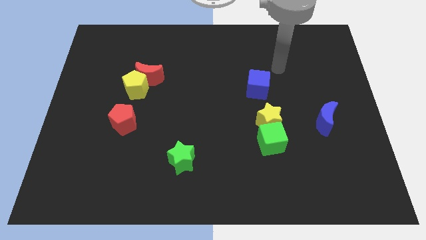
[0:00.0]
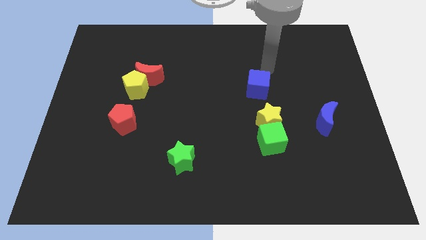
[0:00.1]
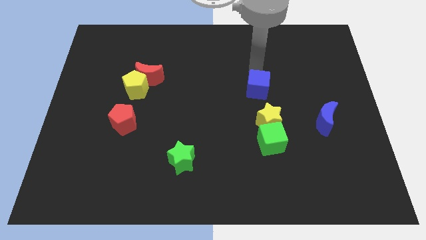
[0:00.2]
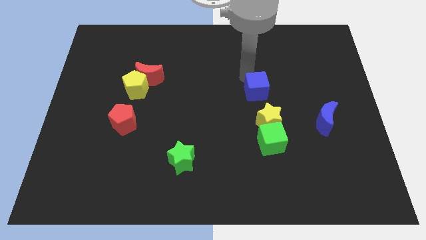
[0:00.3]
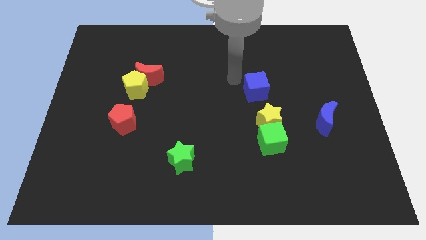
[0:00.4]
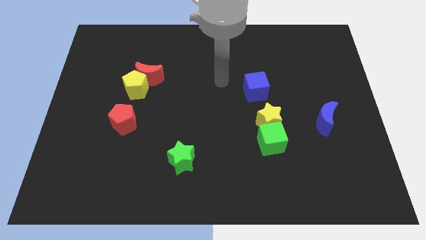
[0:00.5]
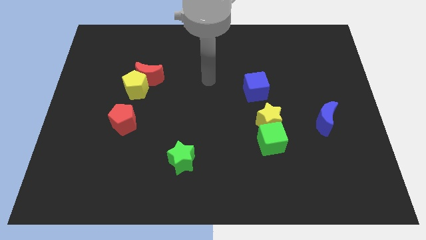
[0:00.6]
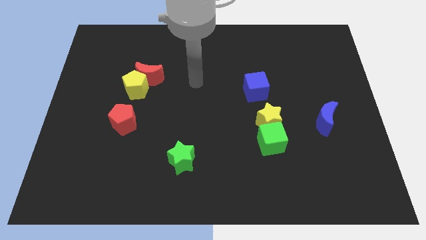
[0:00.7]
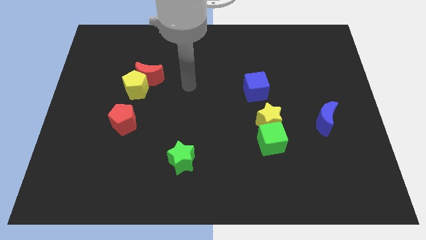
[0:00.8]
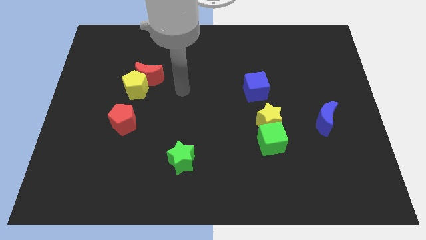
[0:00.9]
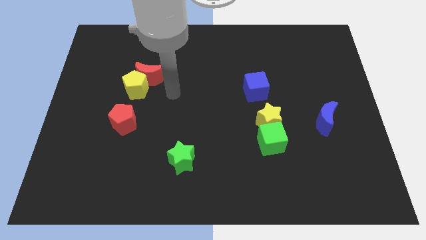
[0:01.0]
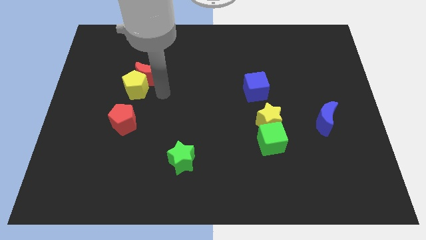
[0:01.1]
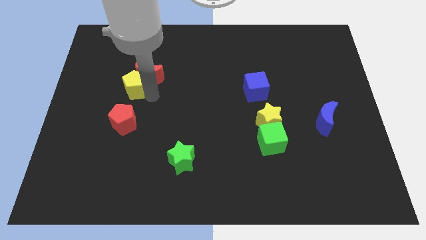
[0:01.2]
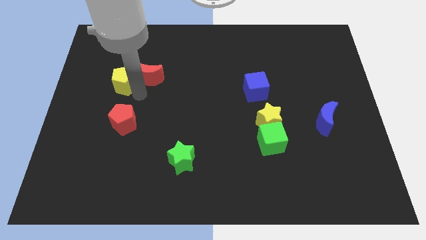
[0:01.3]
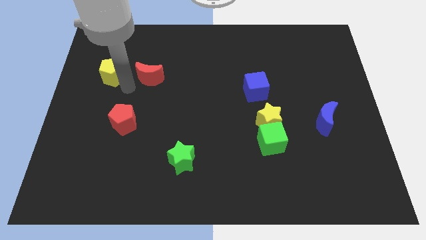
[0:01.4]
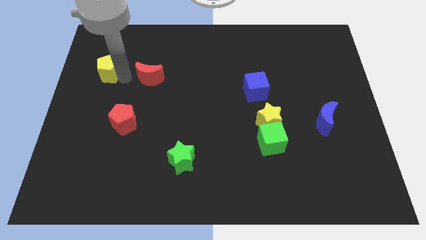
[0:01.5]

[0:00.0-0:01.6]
pull the red moon apart from the yellow pentagon

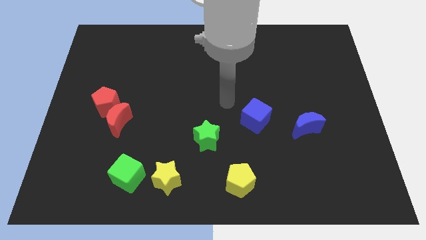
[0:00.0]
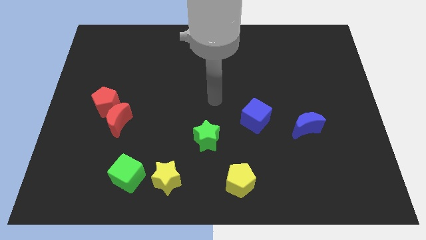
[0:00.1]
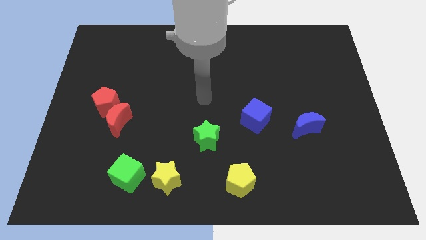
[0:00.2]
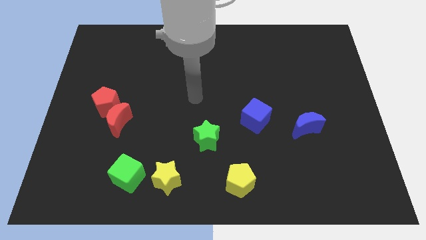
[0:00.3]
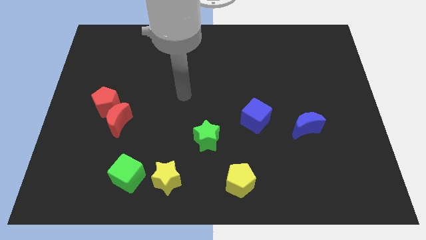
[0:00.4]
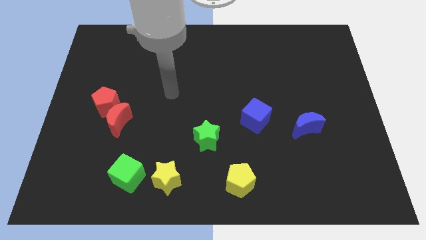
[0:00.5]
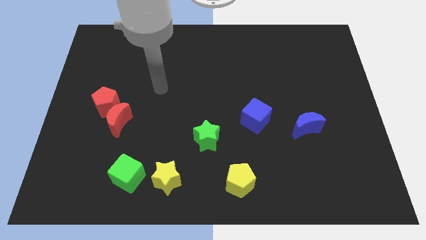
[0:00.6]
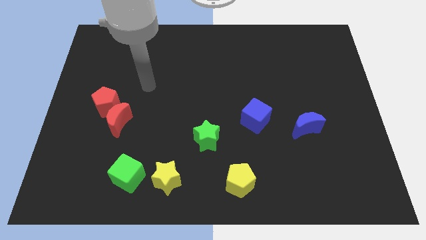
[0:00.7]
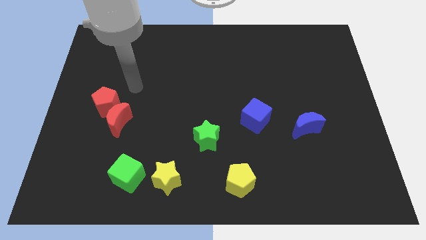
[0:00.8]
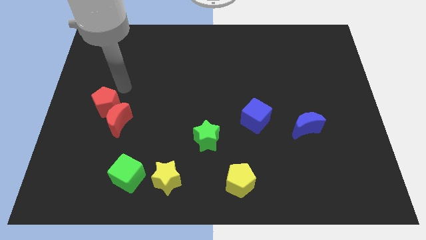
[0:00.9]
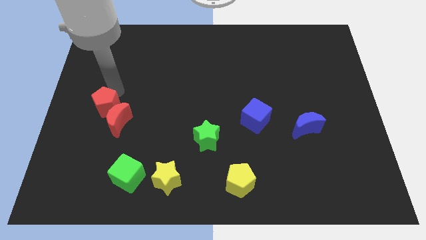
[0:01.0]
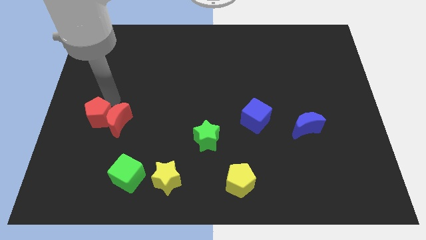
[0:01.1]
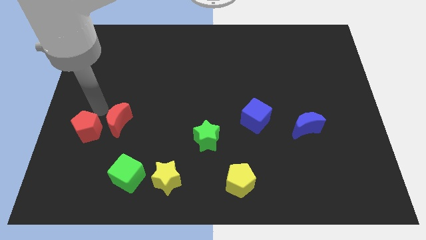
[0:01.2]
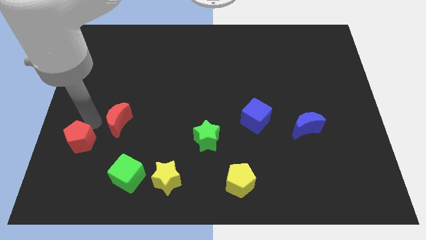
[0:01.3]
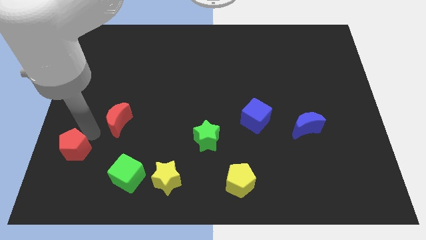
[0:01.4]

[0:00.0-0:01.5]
separate the red moon from the red pentagon

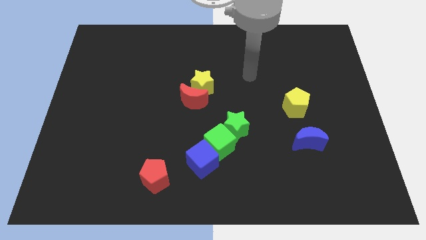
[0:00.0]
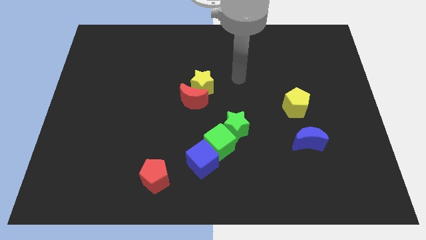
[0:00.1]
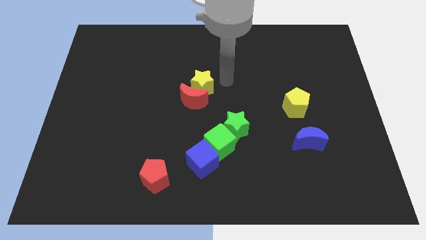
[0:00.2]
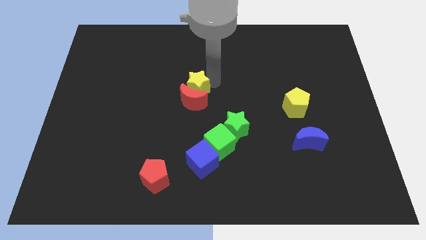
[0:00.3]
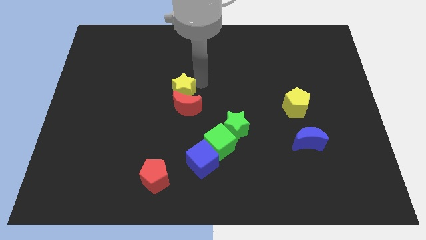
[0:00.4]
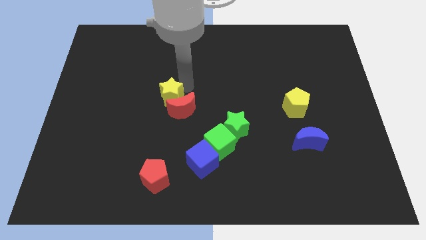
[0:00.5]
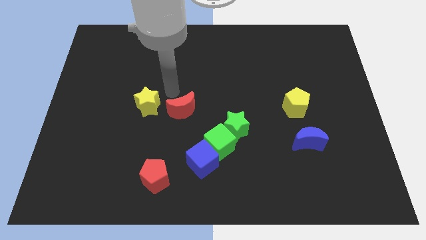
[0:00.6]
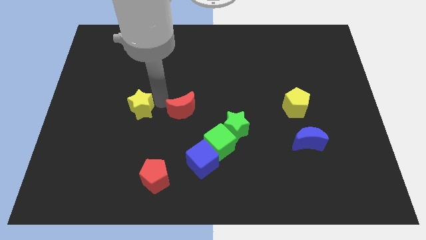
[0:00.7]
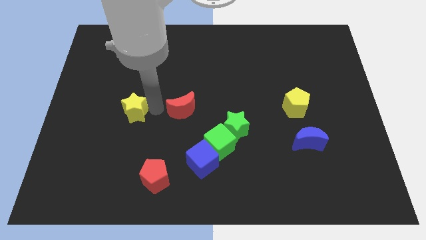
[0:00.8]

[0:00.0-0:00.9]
move the red moon away from the yellow star

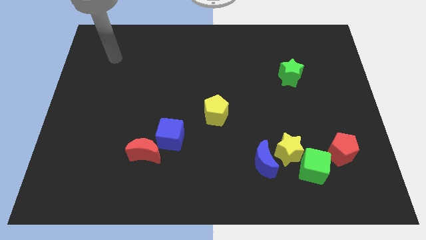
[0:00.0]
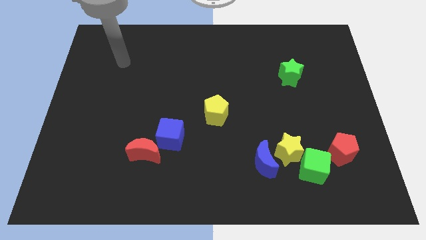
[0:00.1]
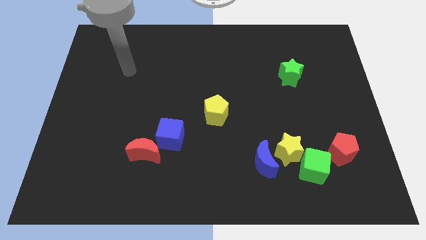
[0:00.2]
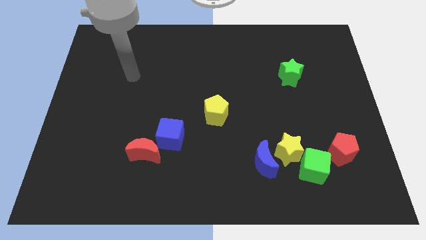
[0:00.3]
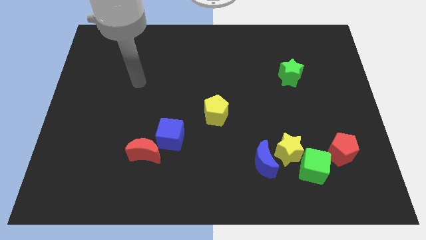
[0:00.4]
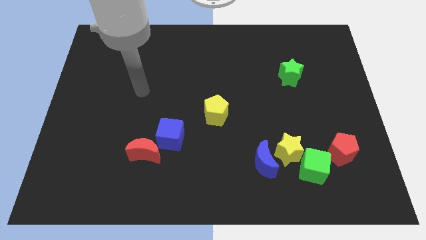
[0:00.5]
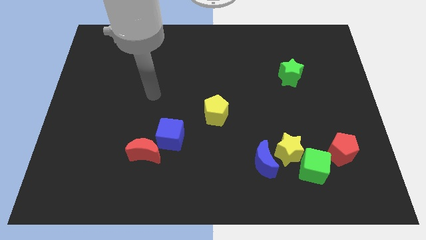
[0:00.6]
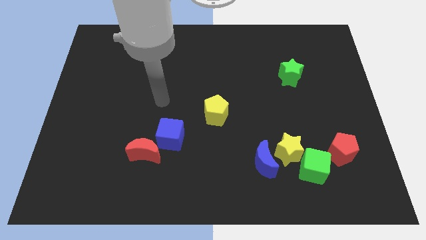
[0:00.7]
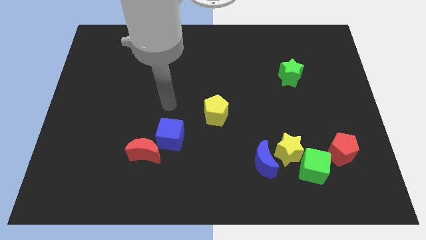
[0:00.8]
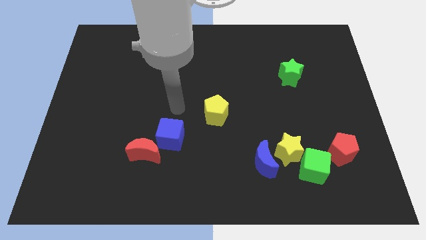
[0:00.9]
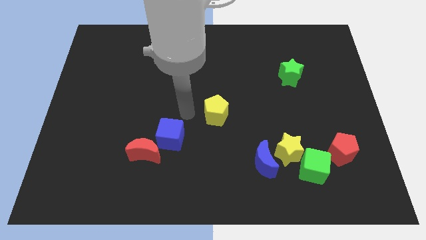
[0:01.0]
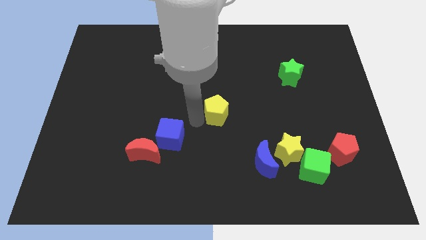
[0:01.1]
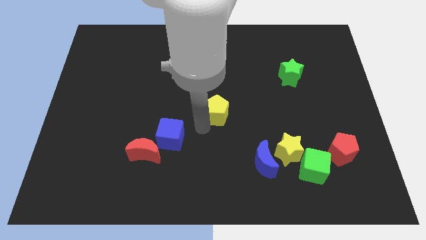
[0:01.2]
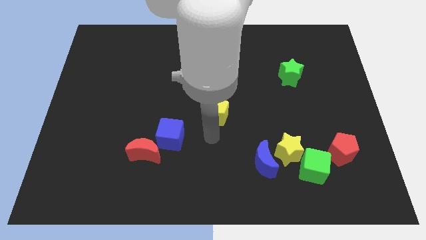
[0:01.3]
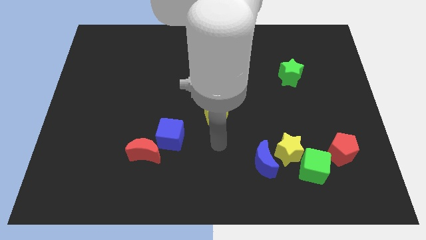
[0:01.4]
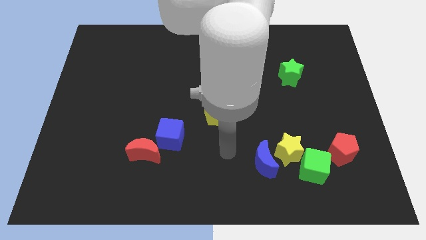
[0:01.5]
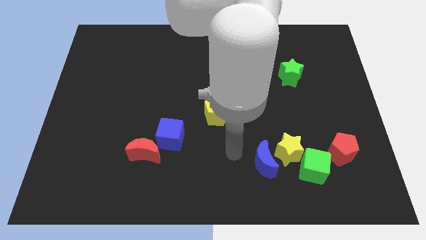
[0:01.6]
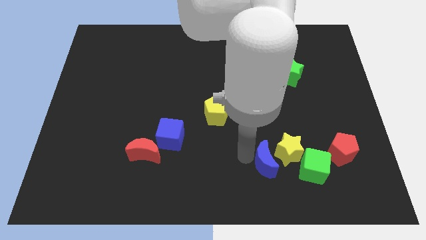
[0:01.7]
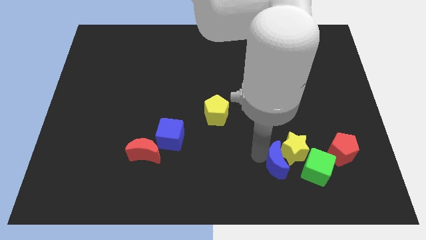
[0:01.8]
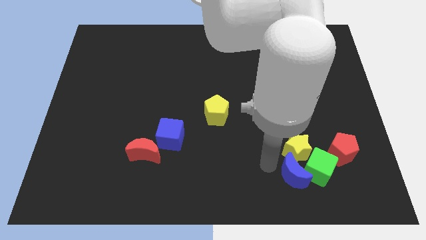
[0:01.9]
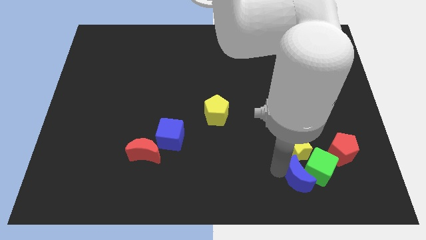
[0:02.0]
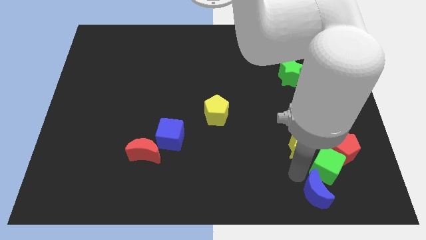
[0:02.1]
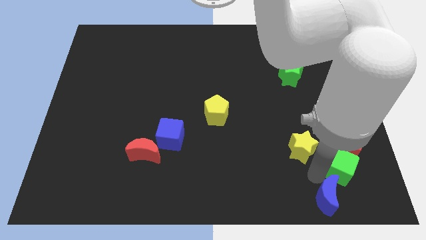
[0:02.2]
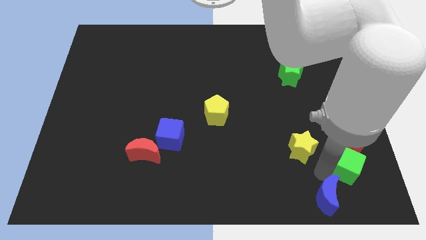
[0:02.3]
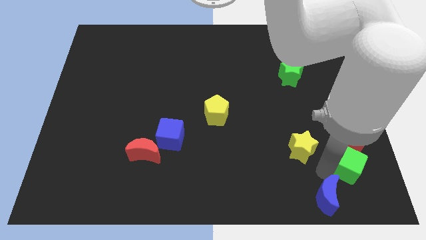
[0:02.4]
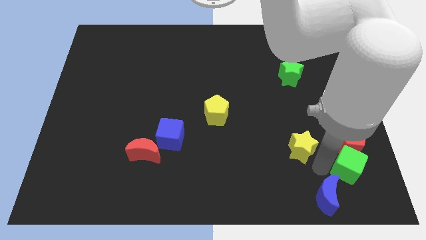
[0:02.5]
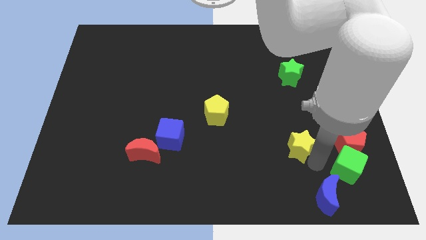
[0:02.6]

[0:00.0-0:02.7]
pull the yellow star apart from the blue moon and green cube

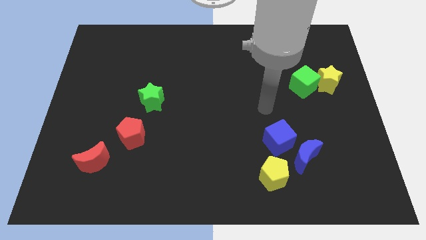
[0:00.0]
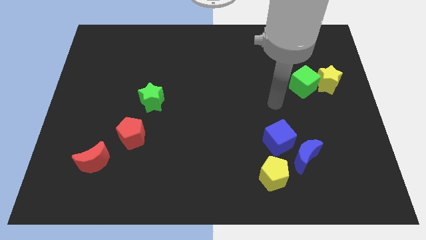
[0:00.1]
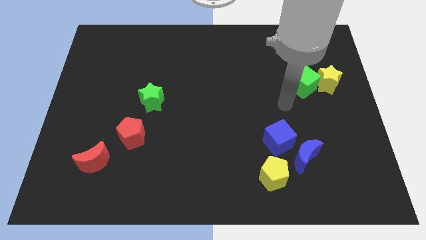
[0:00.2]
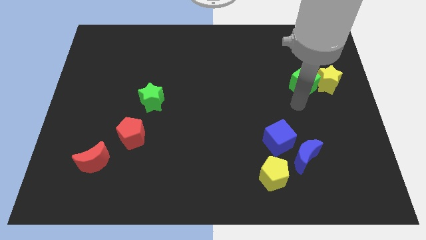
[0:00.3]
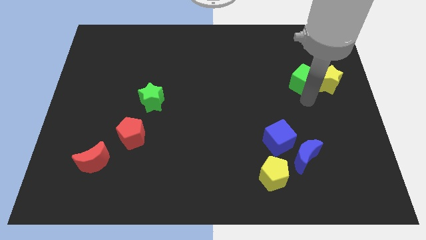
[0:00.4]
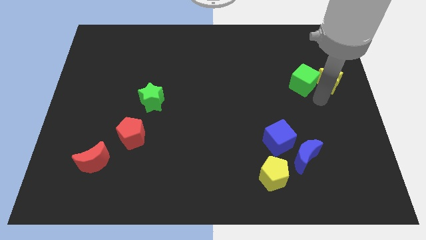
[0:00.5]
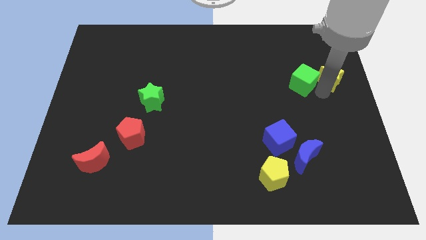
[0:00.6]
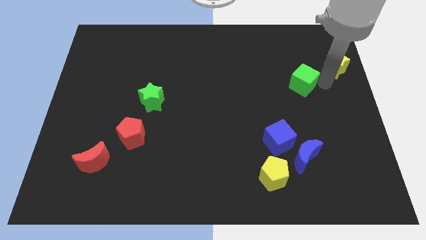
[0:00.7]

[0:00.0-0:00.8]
pull the green cube apart from the yellow star

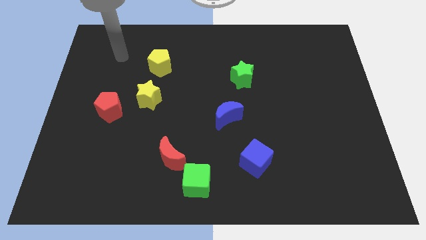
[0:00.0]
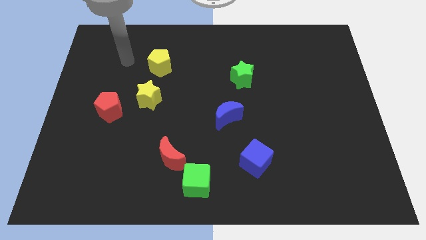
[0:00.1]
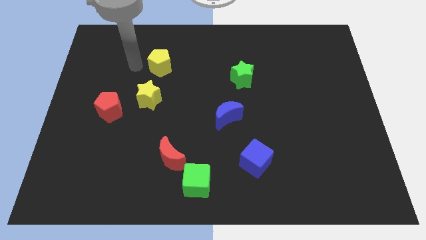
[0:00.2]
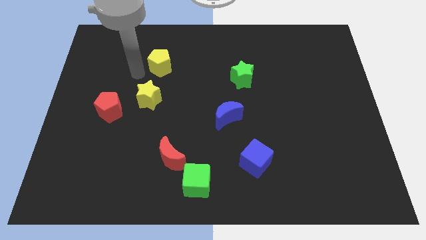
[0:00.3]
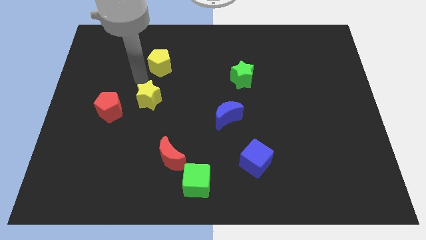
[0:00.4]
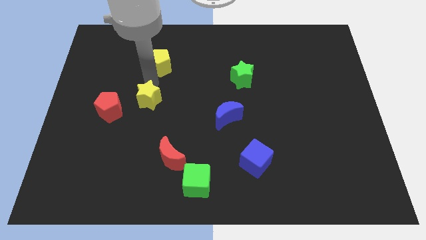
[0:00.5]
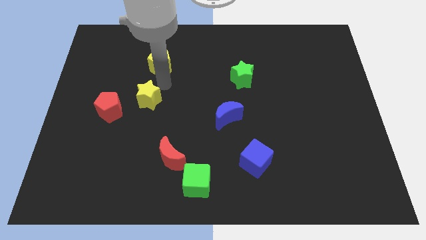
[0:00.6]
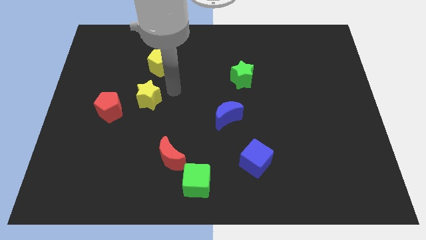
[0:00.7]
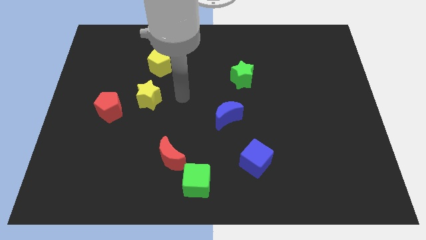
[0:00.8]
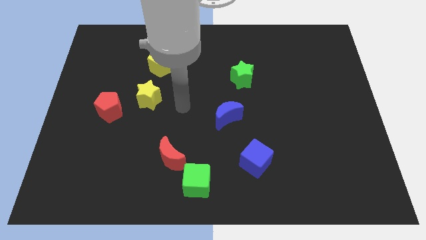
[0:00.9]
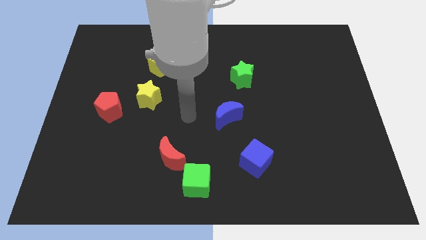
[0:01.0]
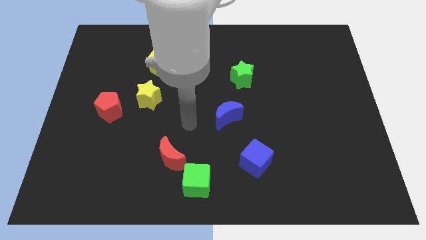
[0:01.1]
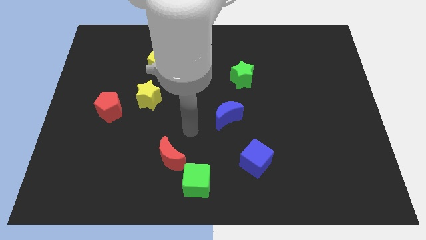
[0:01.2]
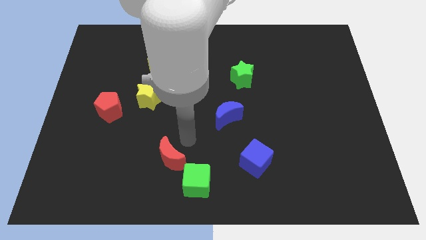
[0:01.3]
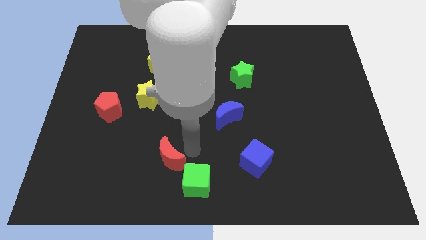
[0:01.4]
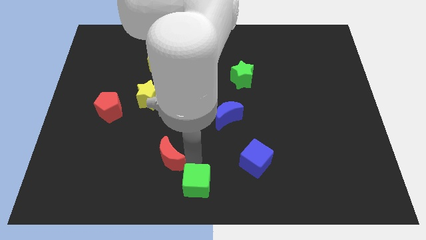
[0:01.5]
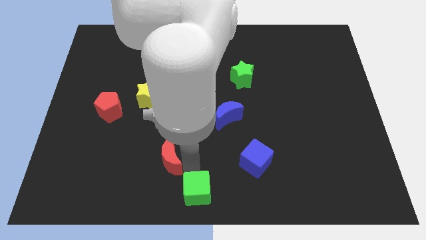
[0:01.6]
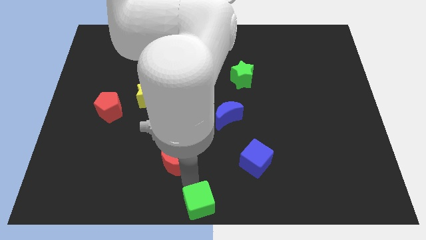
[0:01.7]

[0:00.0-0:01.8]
move the red moon away from the green cube

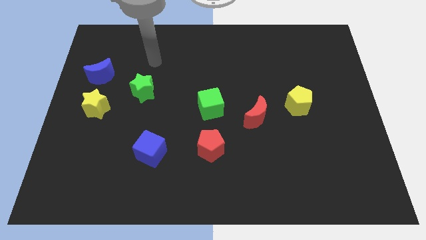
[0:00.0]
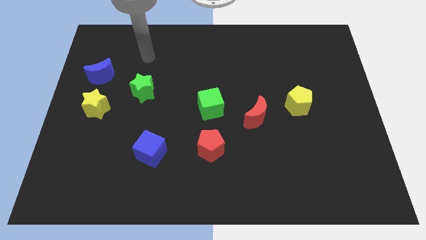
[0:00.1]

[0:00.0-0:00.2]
pull the blue moon apart from the yellow star
